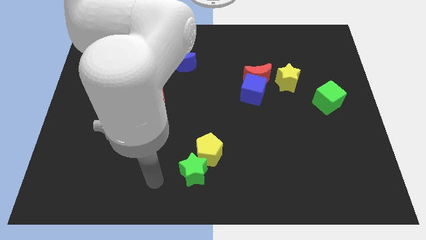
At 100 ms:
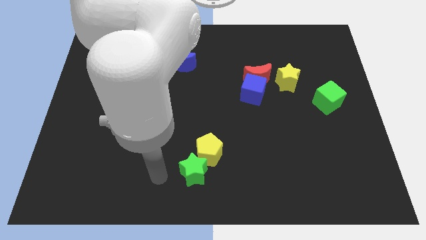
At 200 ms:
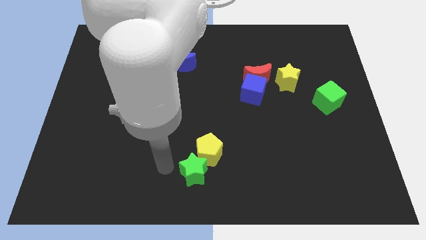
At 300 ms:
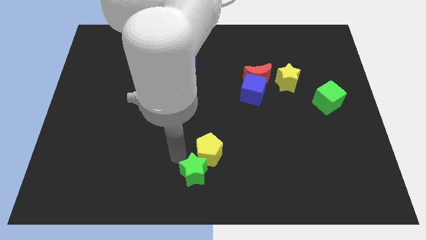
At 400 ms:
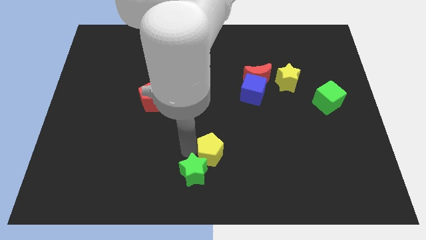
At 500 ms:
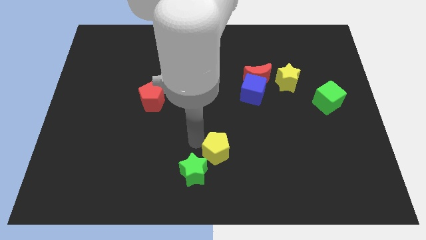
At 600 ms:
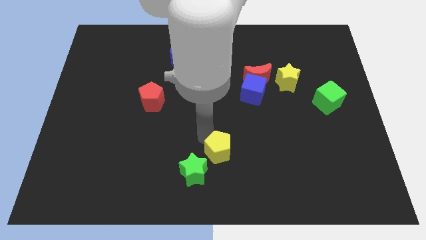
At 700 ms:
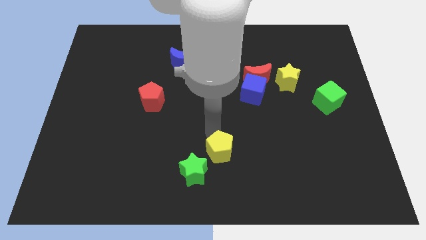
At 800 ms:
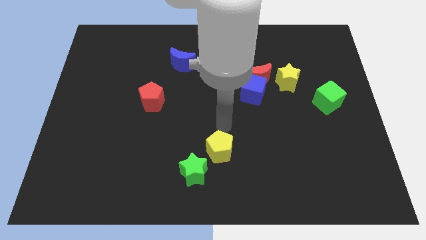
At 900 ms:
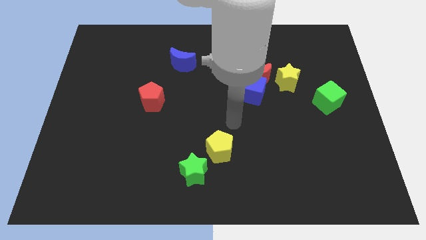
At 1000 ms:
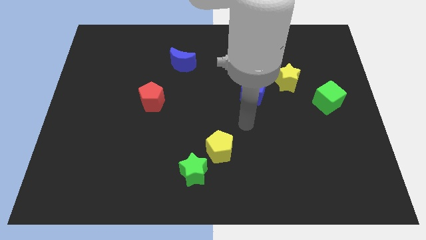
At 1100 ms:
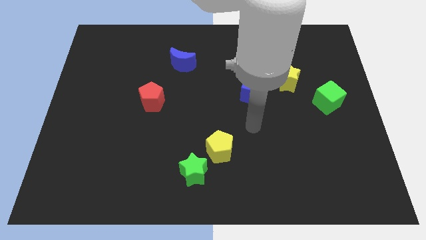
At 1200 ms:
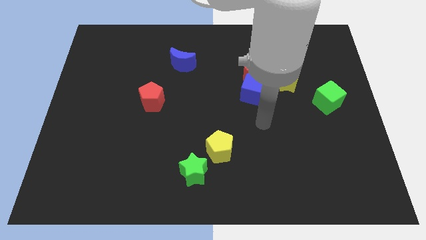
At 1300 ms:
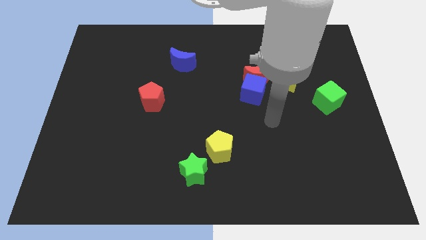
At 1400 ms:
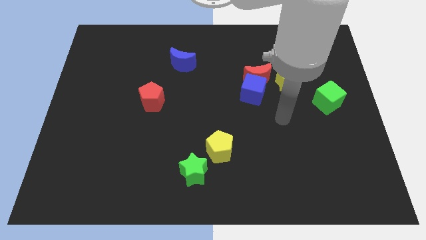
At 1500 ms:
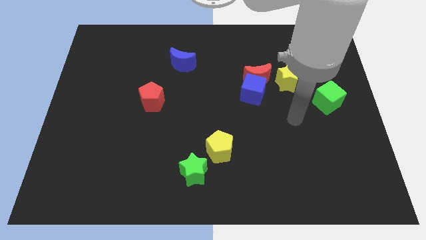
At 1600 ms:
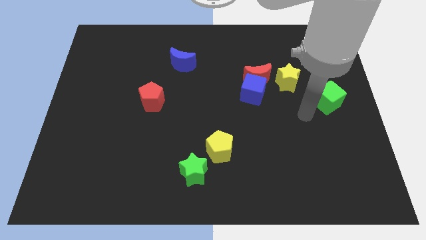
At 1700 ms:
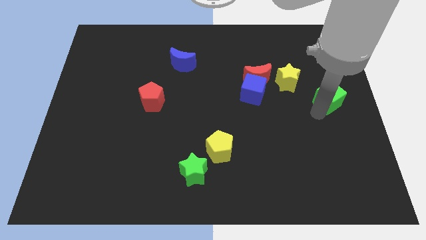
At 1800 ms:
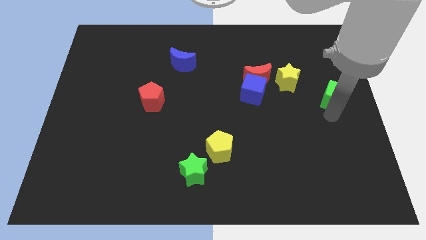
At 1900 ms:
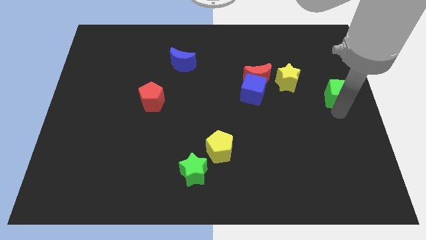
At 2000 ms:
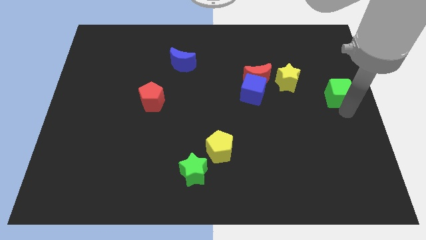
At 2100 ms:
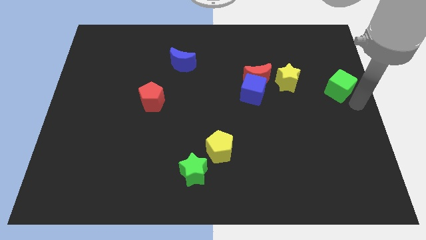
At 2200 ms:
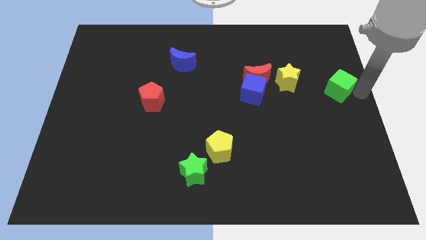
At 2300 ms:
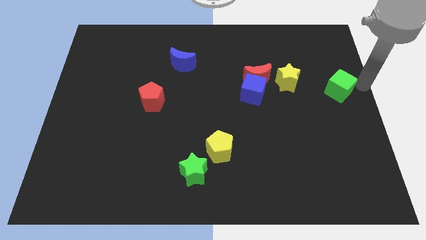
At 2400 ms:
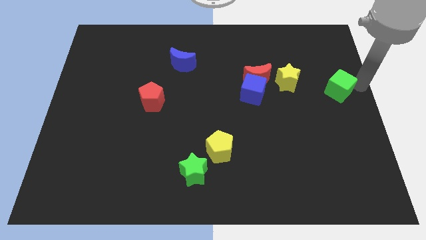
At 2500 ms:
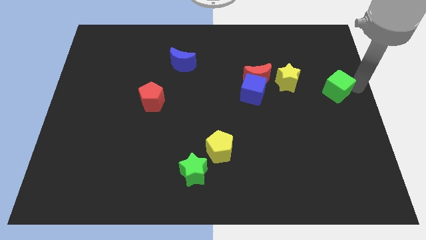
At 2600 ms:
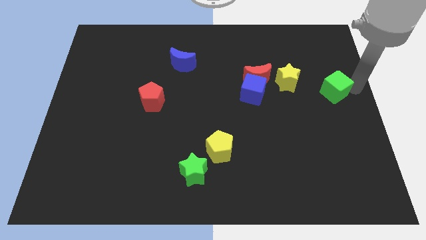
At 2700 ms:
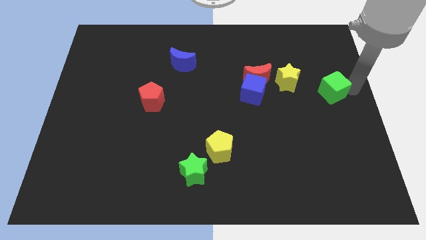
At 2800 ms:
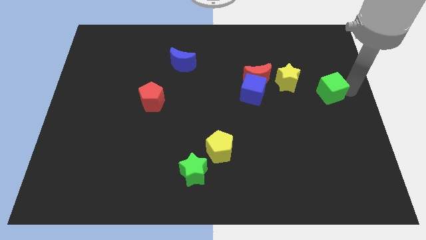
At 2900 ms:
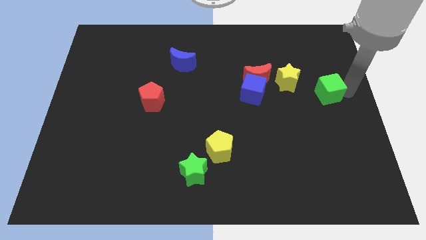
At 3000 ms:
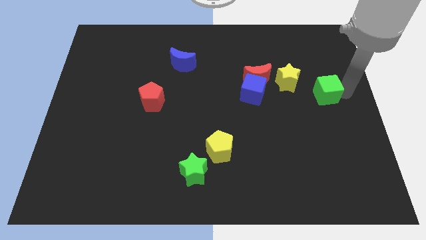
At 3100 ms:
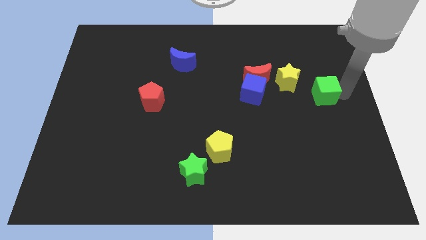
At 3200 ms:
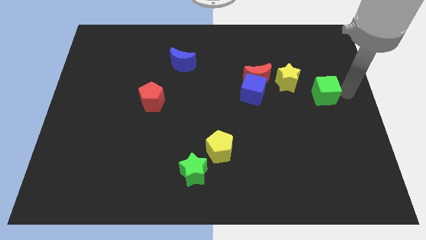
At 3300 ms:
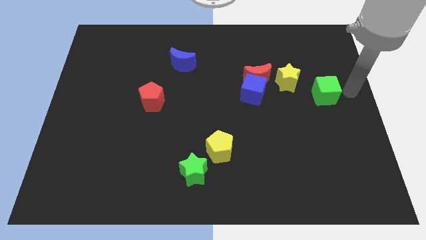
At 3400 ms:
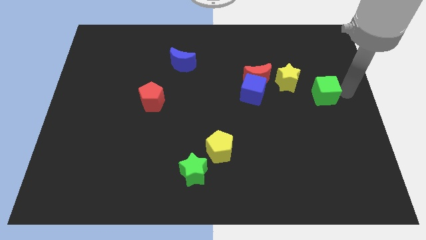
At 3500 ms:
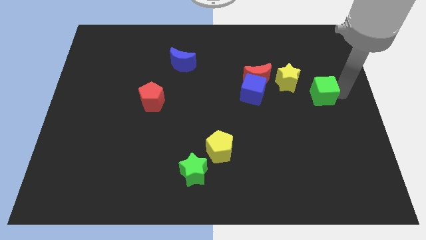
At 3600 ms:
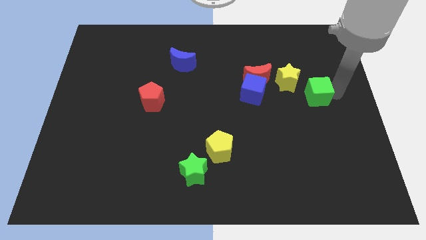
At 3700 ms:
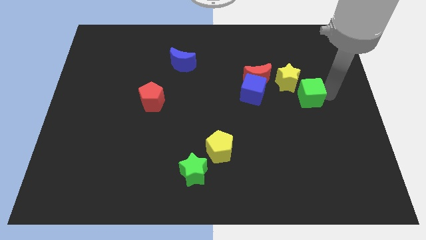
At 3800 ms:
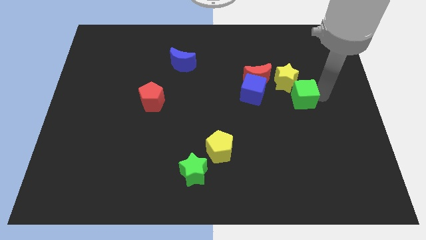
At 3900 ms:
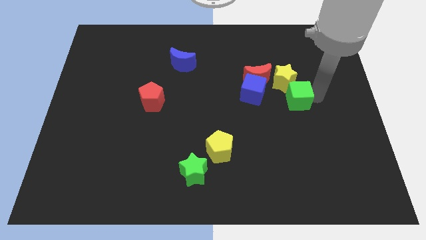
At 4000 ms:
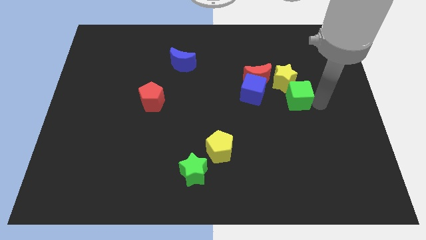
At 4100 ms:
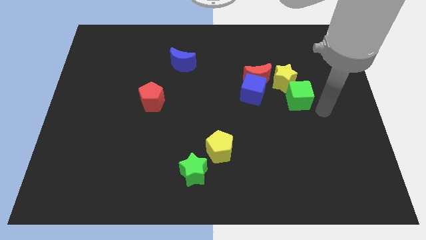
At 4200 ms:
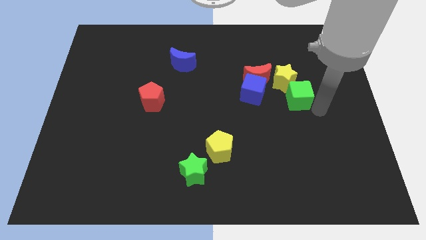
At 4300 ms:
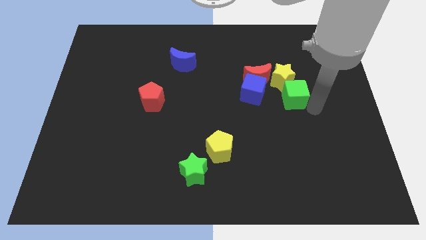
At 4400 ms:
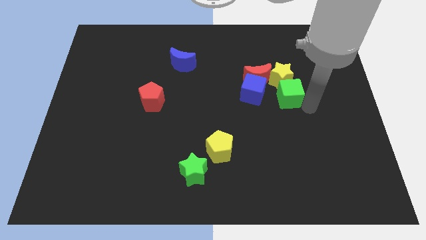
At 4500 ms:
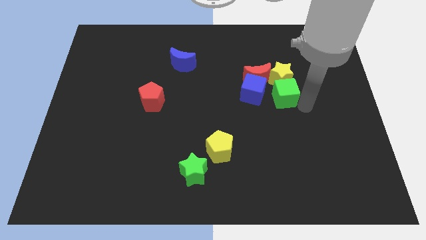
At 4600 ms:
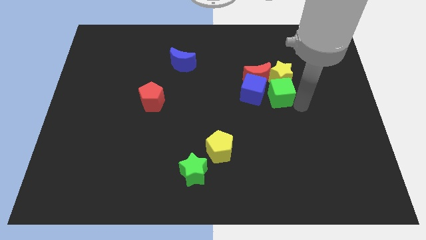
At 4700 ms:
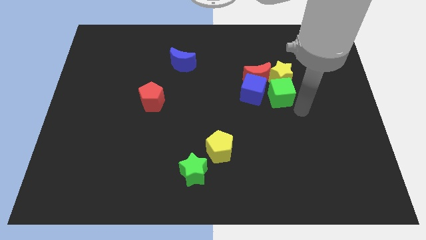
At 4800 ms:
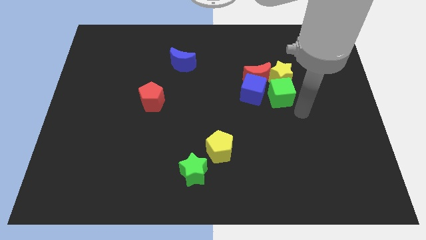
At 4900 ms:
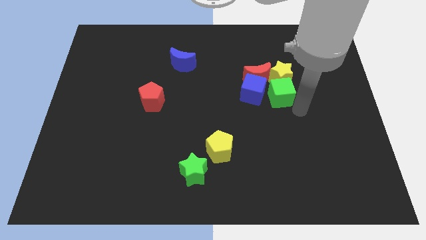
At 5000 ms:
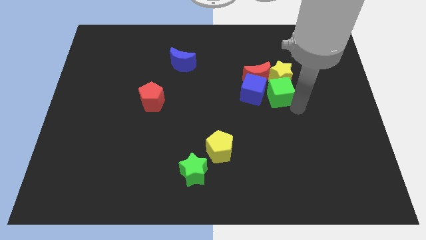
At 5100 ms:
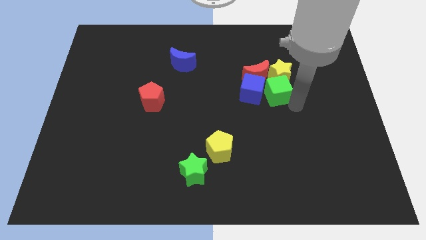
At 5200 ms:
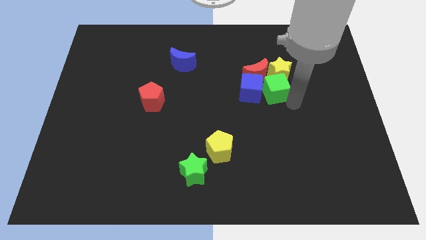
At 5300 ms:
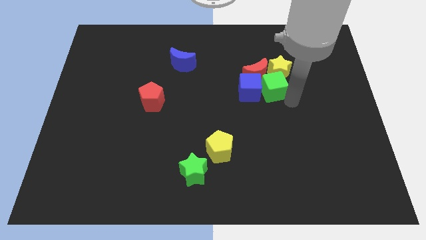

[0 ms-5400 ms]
move the green cube to the red moon

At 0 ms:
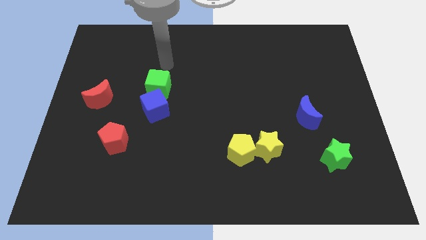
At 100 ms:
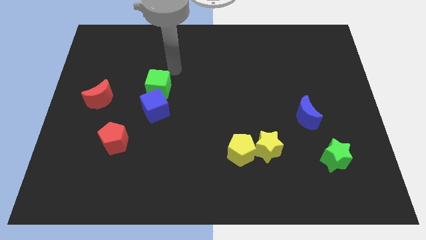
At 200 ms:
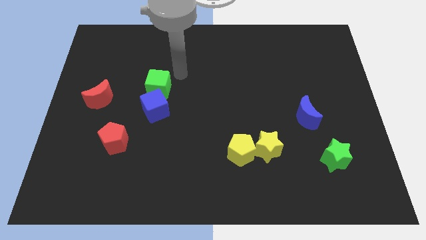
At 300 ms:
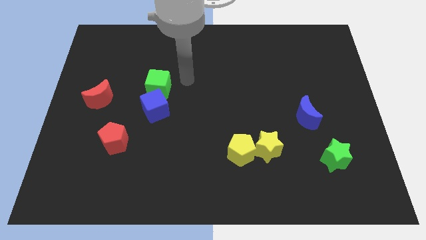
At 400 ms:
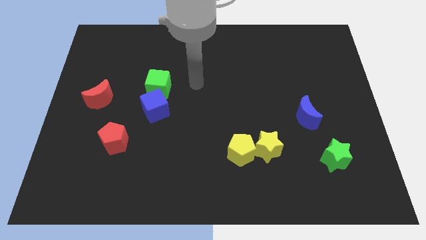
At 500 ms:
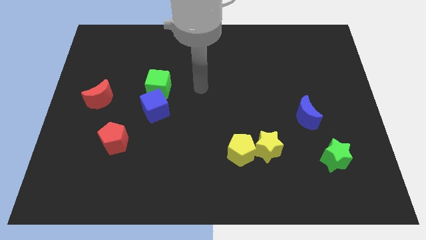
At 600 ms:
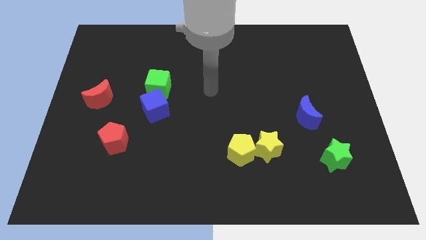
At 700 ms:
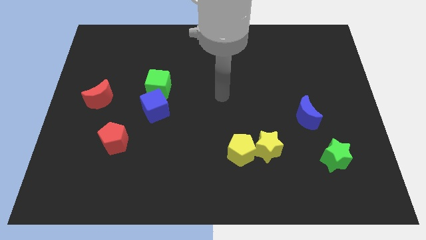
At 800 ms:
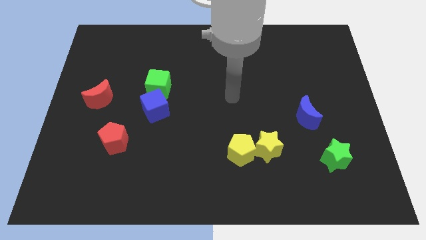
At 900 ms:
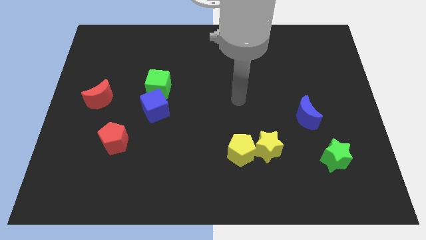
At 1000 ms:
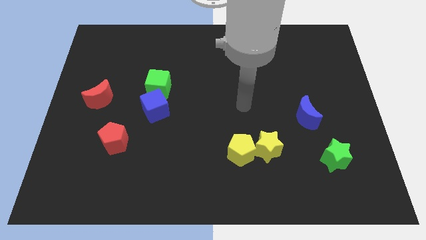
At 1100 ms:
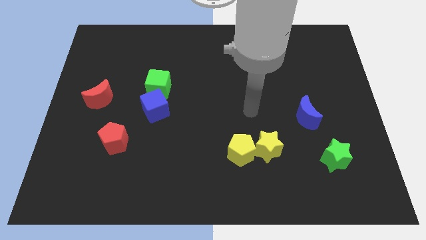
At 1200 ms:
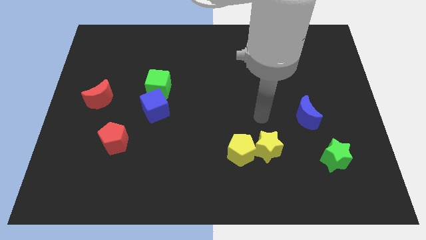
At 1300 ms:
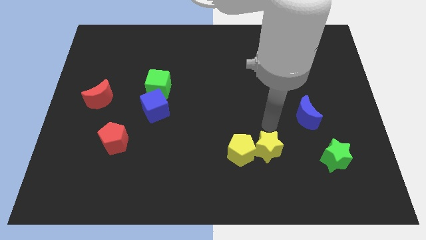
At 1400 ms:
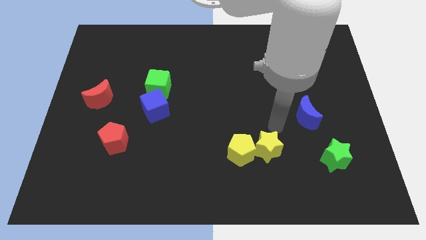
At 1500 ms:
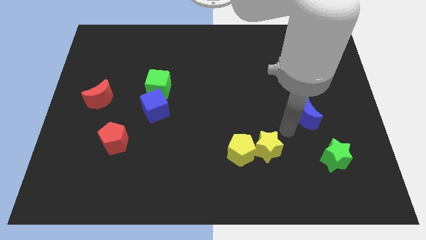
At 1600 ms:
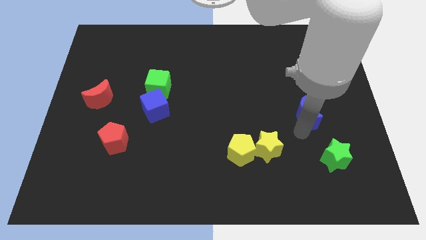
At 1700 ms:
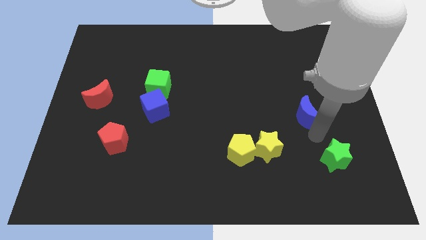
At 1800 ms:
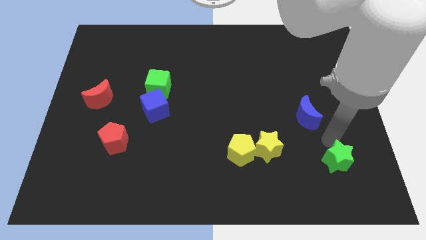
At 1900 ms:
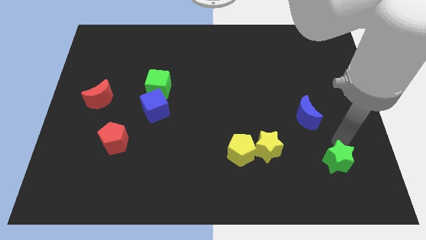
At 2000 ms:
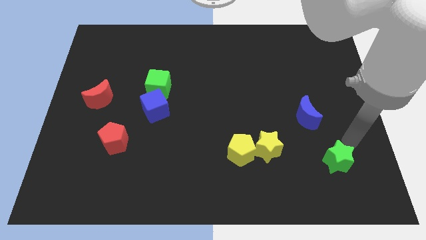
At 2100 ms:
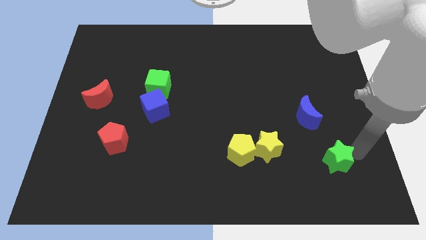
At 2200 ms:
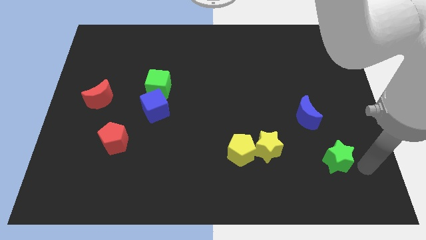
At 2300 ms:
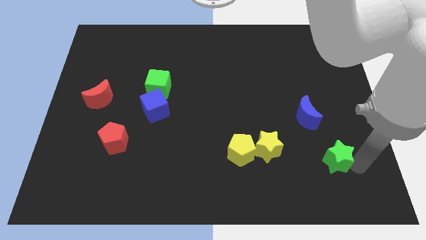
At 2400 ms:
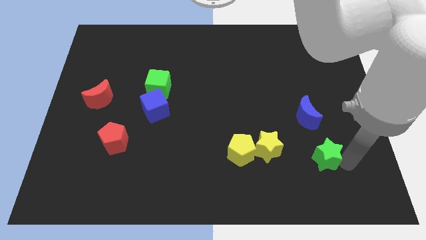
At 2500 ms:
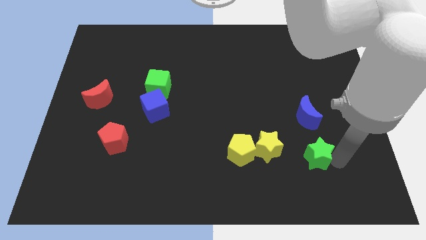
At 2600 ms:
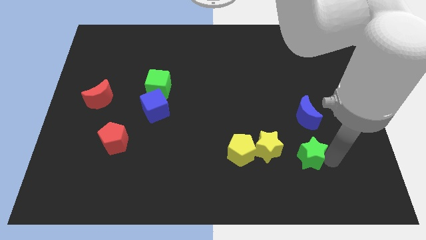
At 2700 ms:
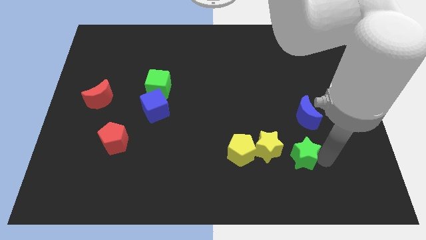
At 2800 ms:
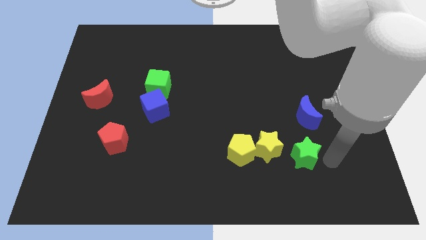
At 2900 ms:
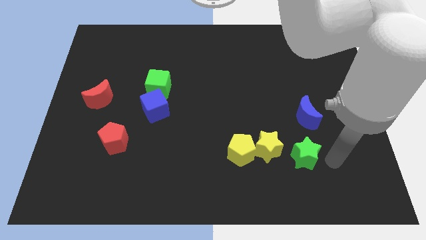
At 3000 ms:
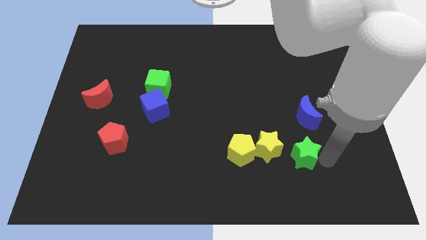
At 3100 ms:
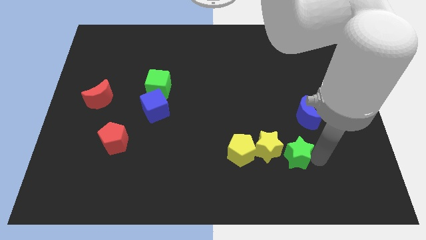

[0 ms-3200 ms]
put the green star towards the yellow star
